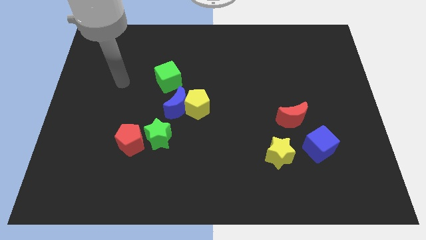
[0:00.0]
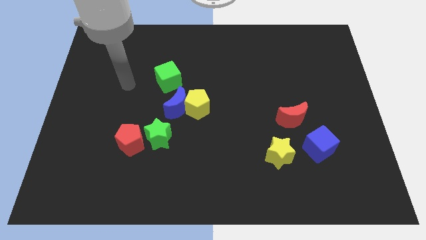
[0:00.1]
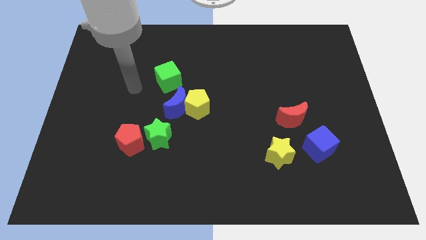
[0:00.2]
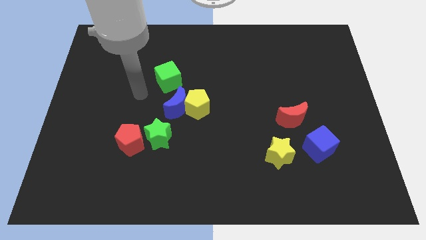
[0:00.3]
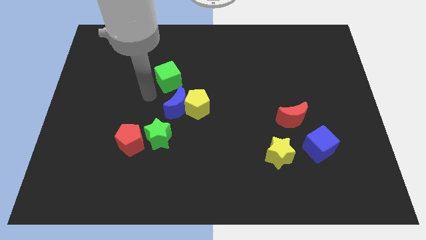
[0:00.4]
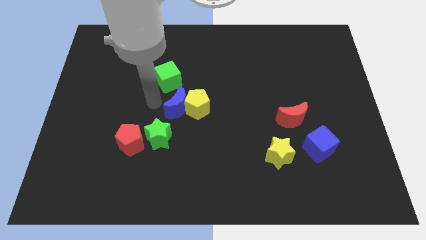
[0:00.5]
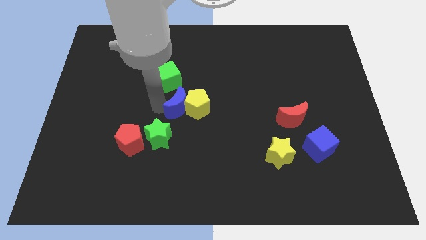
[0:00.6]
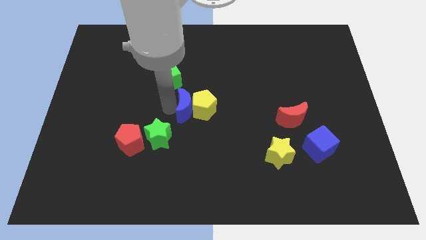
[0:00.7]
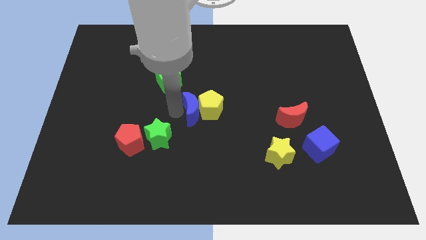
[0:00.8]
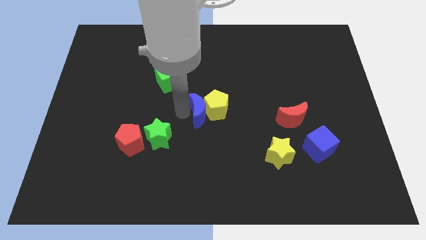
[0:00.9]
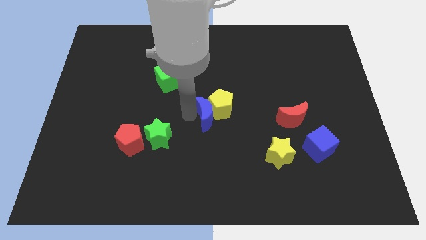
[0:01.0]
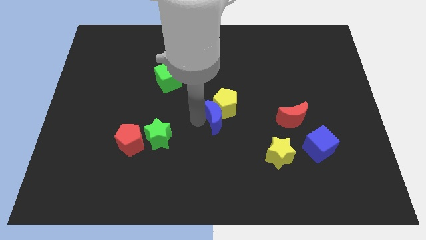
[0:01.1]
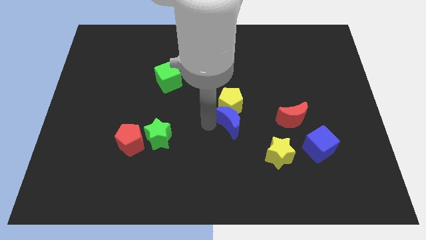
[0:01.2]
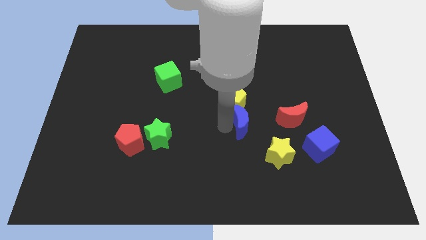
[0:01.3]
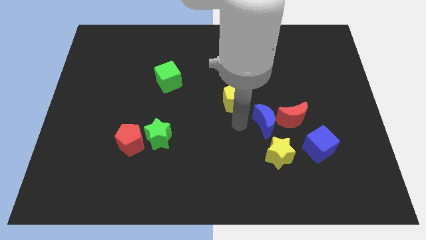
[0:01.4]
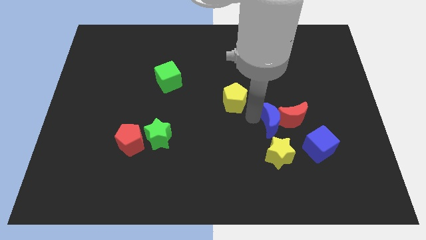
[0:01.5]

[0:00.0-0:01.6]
move the yellow pentagon away from the blue moon

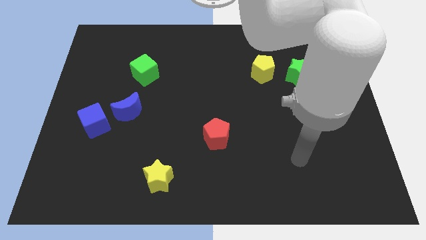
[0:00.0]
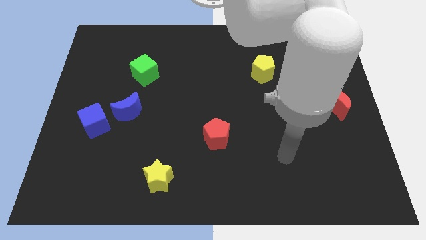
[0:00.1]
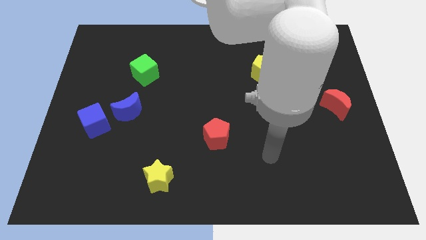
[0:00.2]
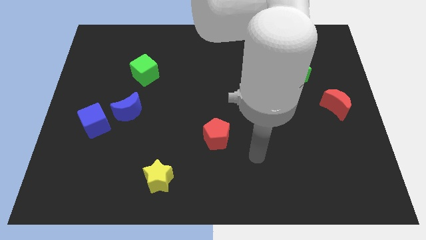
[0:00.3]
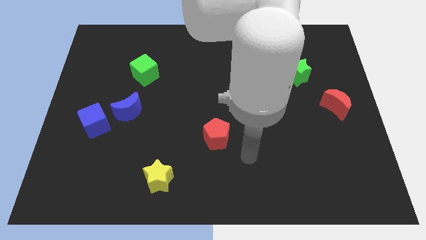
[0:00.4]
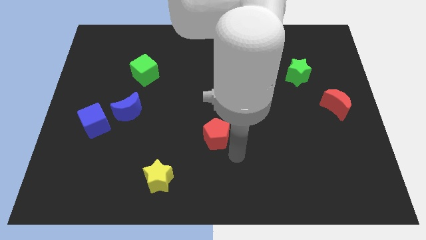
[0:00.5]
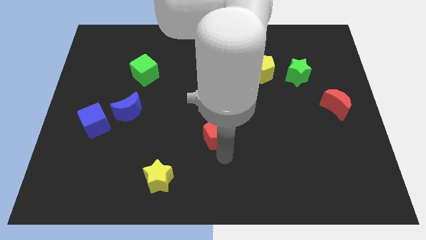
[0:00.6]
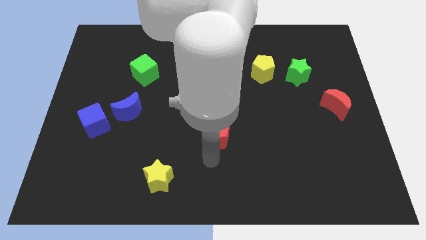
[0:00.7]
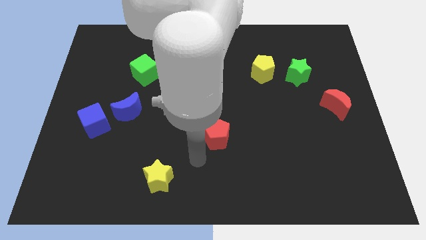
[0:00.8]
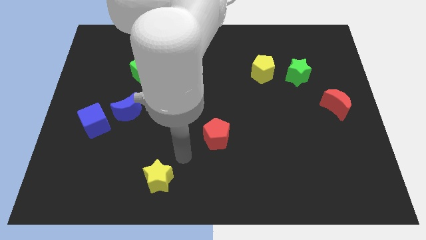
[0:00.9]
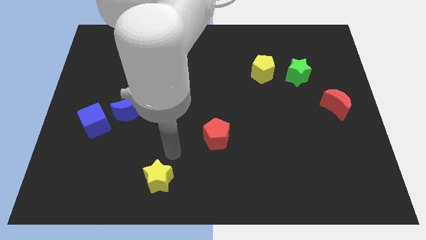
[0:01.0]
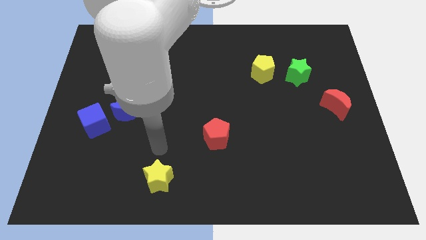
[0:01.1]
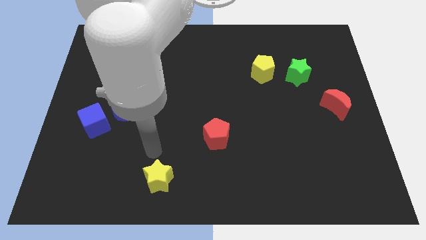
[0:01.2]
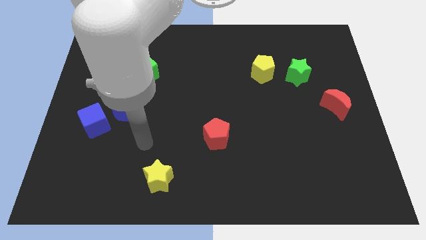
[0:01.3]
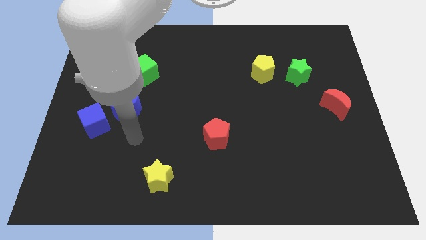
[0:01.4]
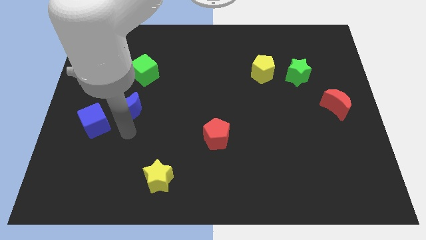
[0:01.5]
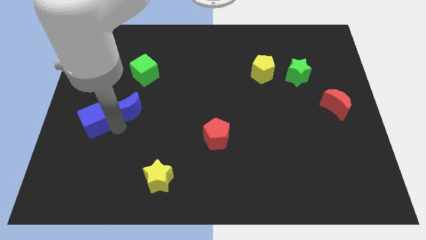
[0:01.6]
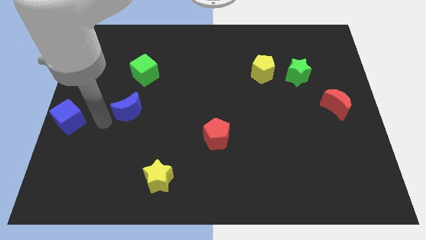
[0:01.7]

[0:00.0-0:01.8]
separate the blue moon from the blue cube

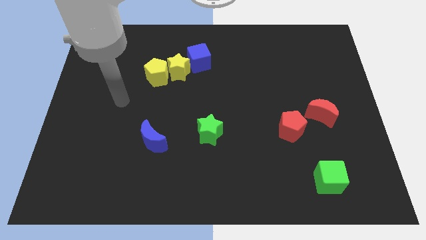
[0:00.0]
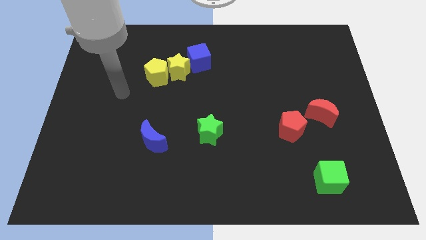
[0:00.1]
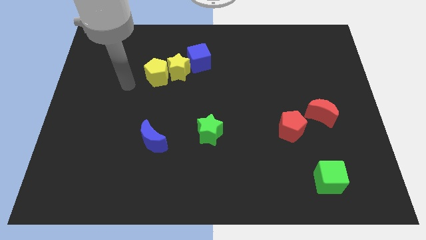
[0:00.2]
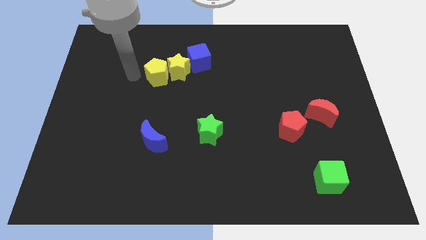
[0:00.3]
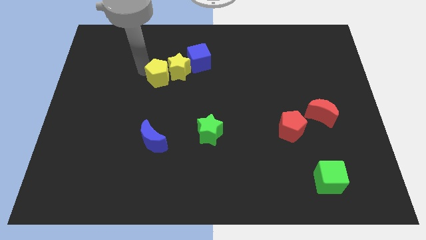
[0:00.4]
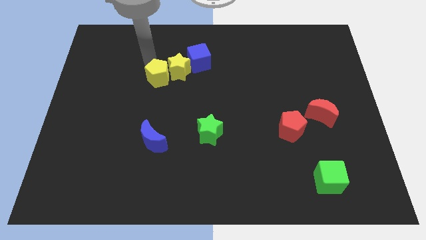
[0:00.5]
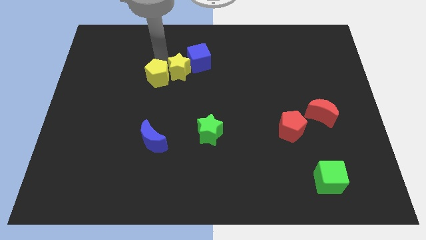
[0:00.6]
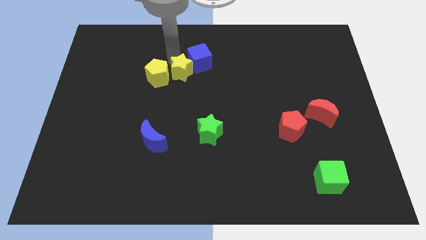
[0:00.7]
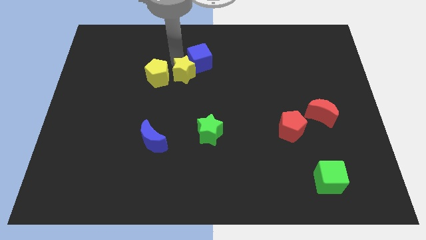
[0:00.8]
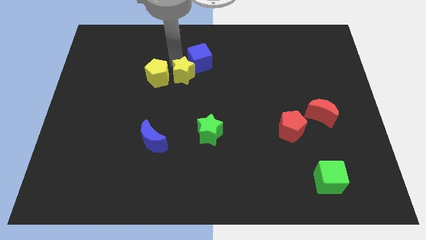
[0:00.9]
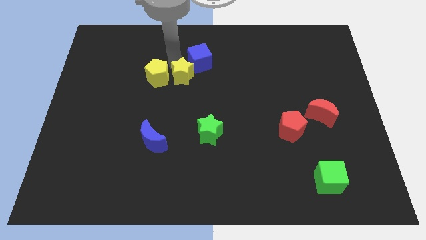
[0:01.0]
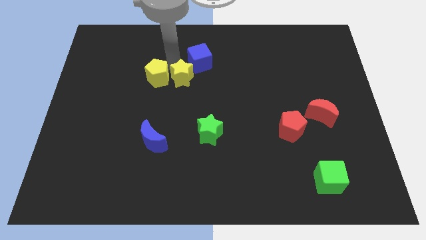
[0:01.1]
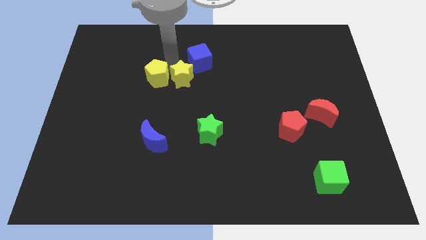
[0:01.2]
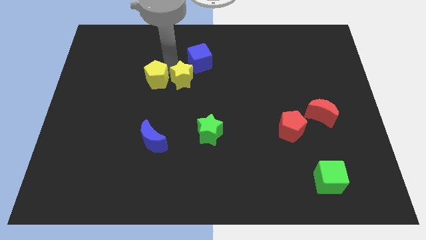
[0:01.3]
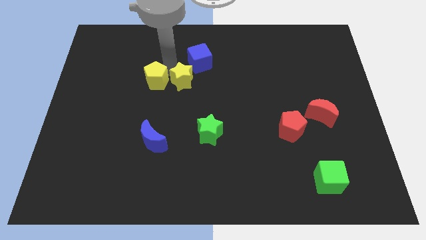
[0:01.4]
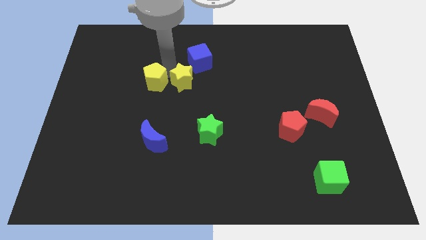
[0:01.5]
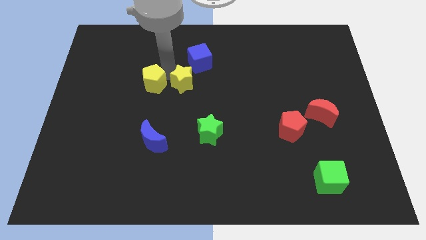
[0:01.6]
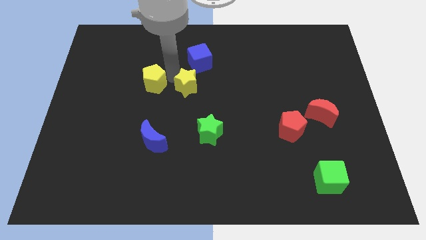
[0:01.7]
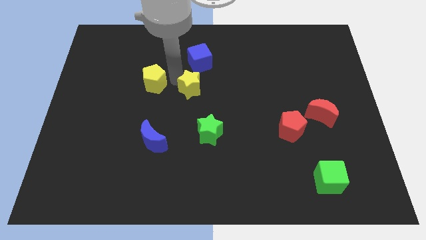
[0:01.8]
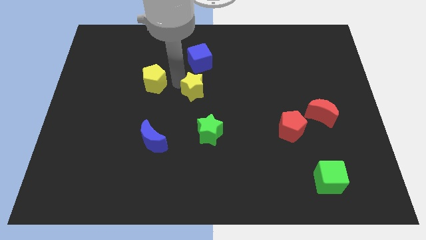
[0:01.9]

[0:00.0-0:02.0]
pull the yellow pentagon apart from the yellow star

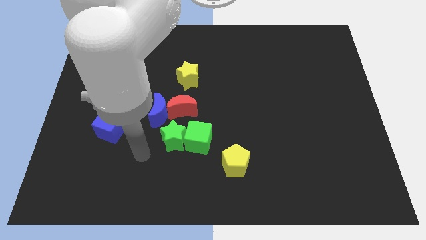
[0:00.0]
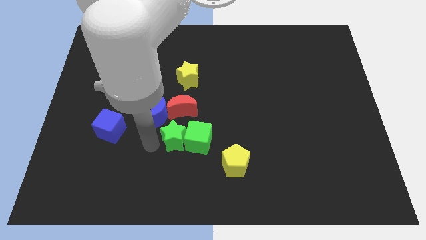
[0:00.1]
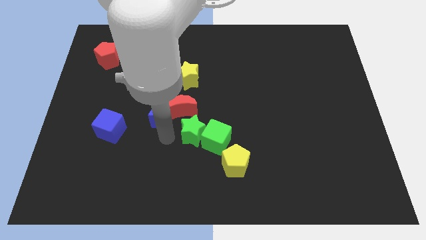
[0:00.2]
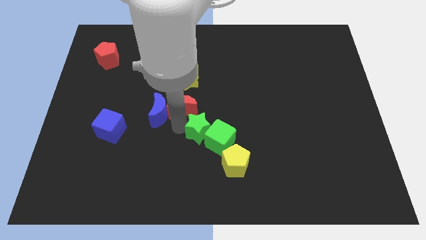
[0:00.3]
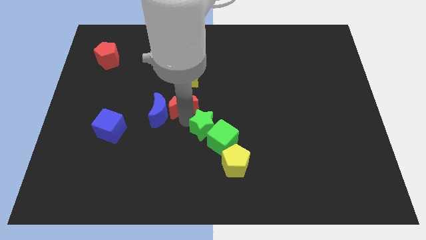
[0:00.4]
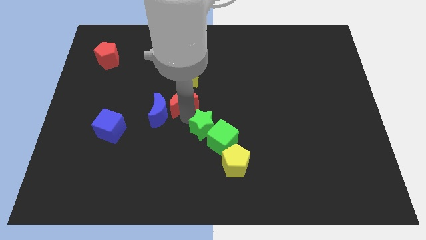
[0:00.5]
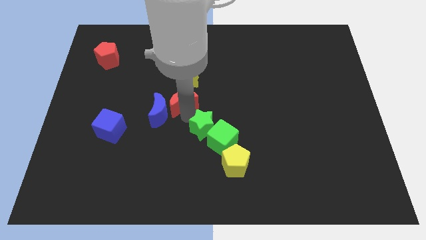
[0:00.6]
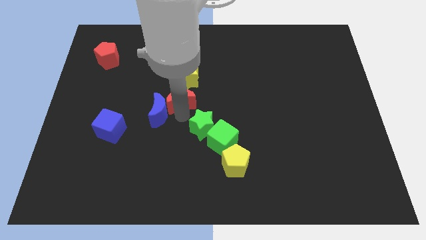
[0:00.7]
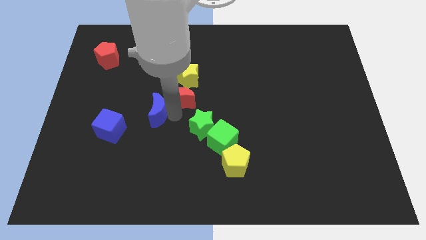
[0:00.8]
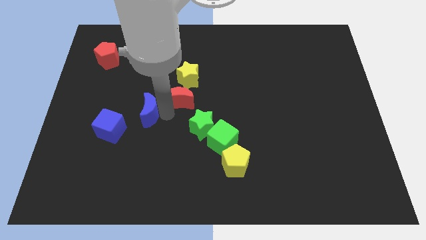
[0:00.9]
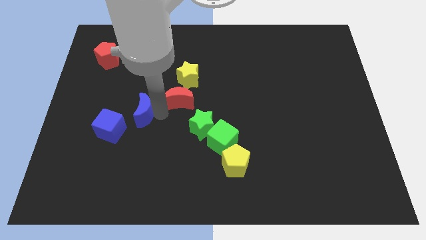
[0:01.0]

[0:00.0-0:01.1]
pull the blue moon apart from the red moon and green star

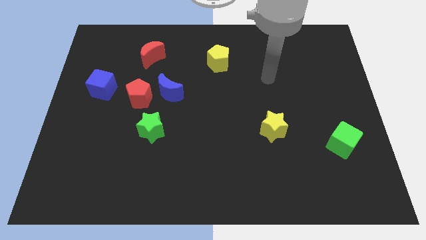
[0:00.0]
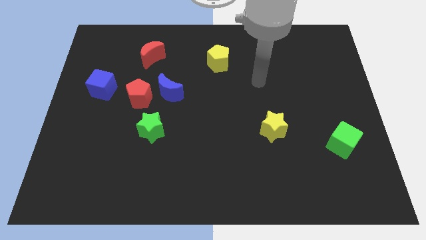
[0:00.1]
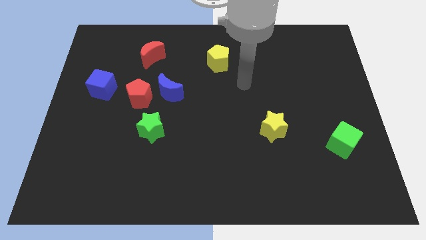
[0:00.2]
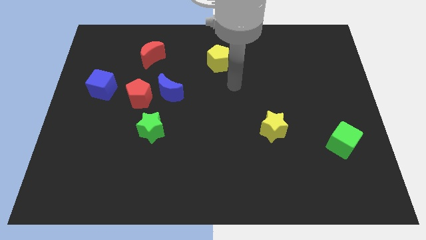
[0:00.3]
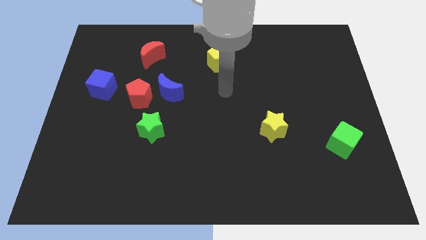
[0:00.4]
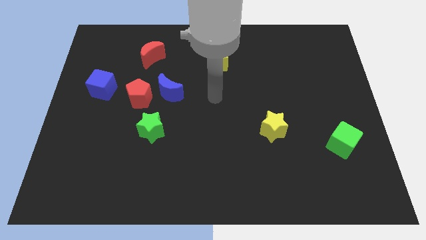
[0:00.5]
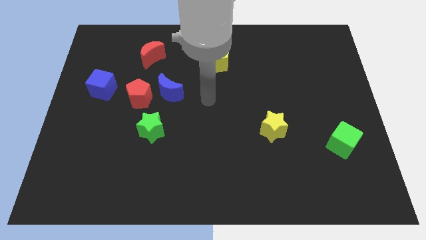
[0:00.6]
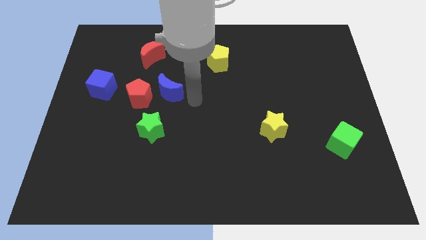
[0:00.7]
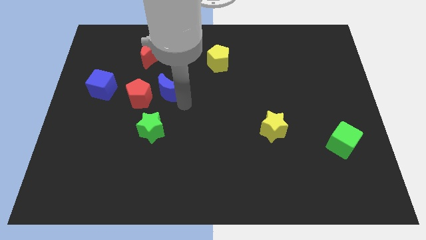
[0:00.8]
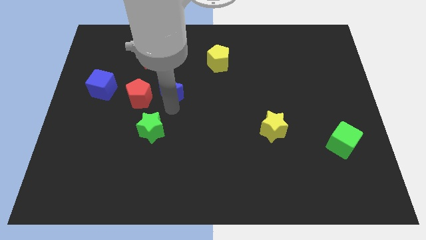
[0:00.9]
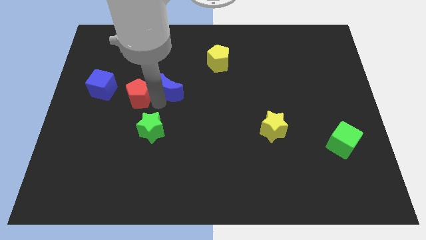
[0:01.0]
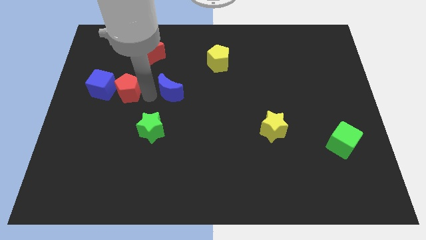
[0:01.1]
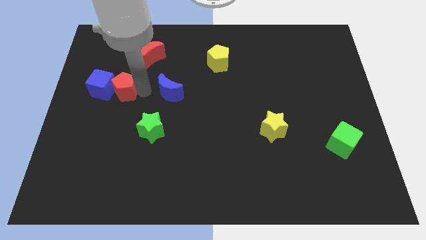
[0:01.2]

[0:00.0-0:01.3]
separate the blue moon from the red pentagon

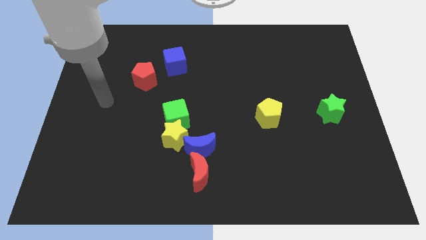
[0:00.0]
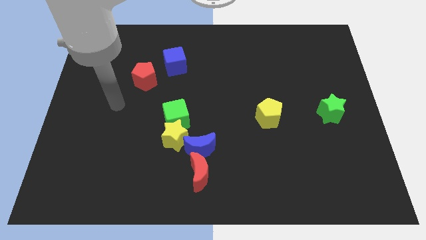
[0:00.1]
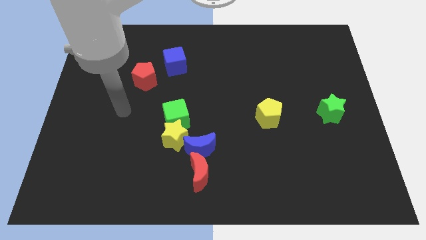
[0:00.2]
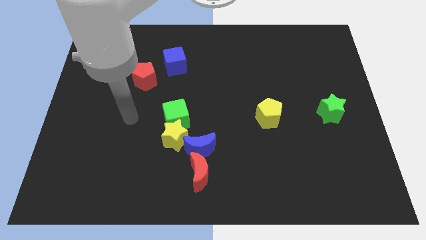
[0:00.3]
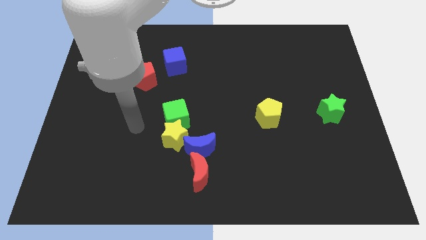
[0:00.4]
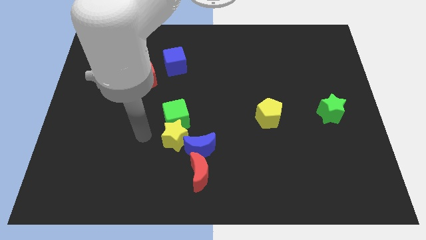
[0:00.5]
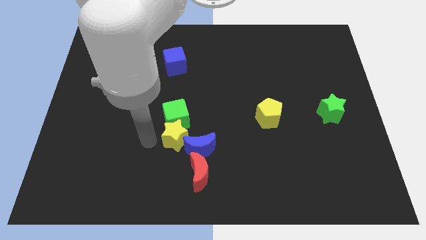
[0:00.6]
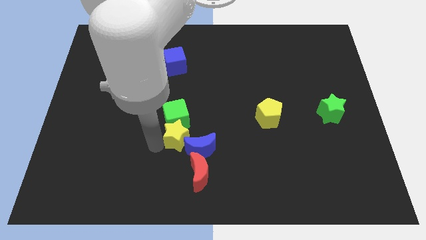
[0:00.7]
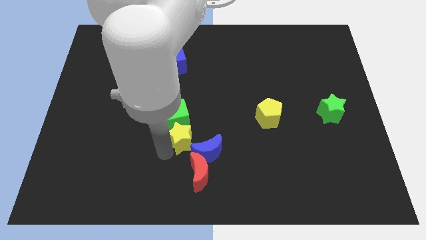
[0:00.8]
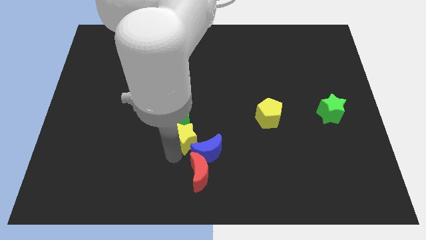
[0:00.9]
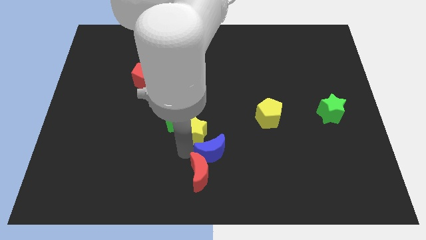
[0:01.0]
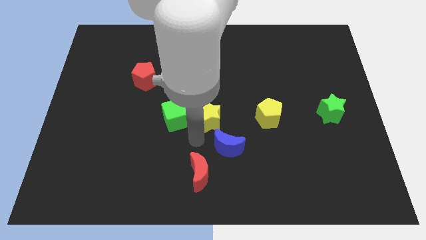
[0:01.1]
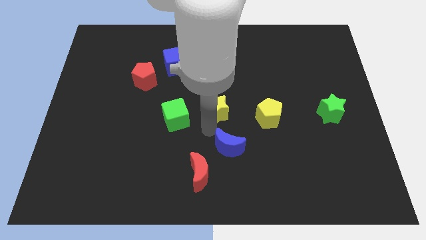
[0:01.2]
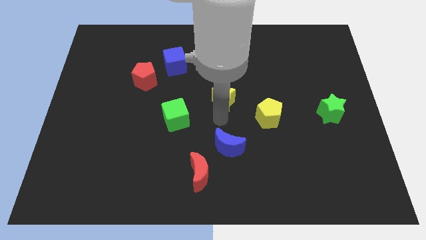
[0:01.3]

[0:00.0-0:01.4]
move the yellow star away from the green cube and blue moon
